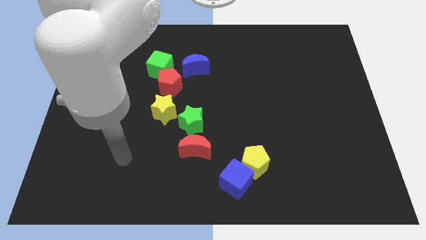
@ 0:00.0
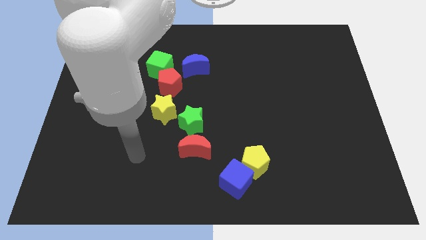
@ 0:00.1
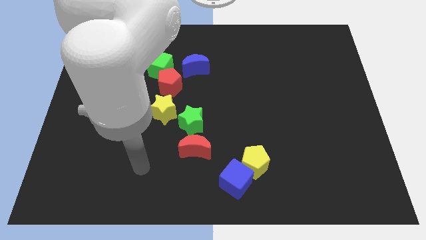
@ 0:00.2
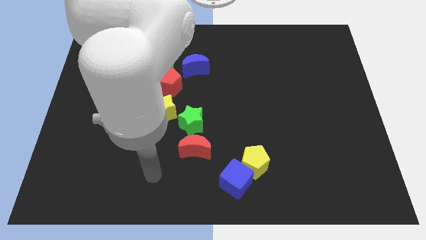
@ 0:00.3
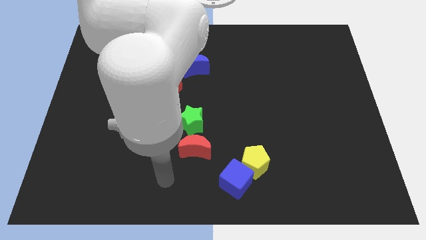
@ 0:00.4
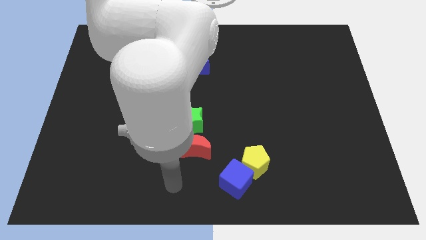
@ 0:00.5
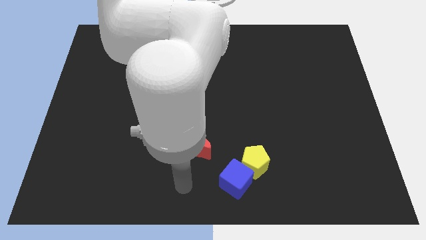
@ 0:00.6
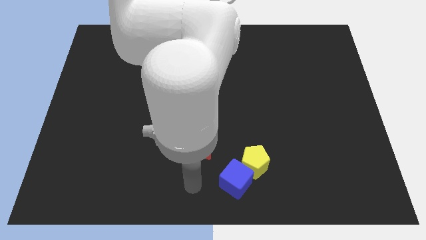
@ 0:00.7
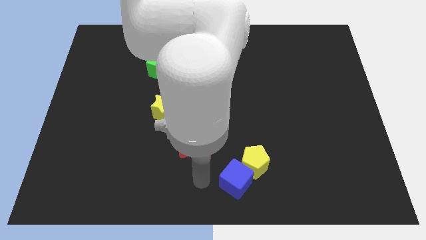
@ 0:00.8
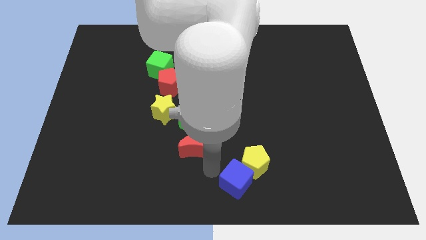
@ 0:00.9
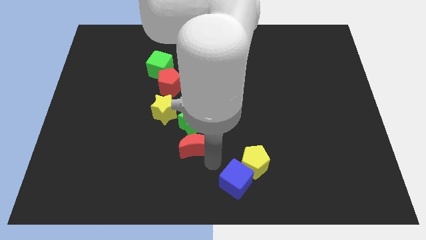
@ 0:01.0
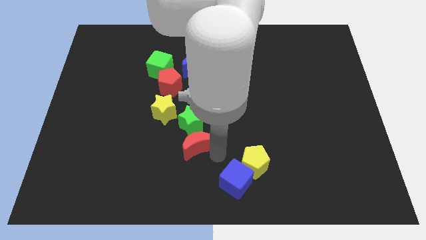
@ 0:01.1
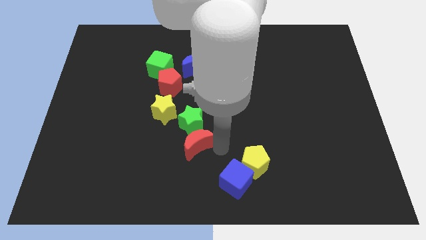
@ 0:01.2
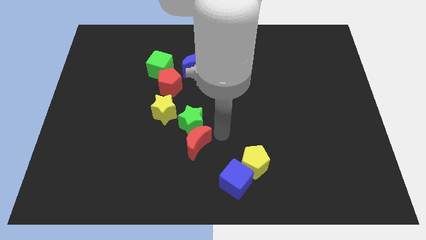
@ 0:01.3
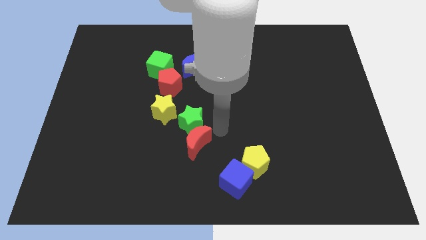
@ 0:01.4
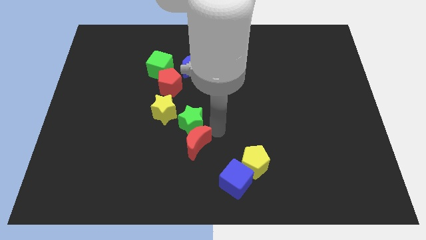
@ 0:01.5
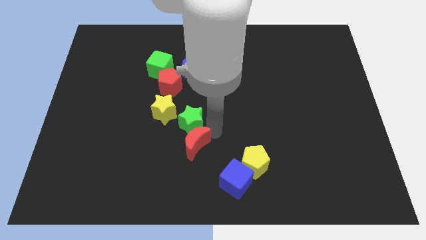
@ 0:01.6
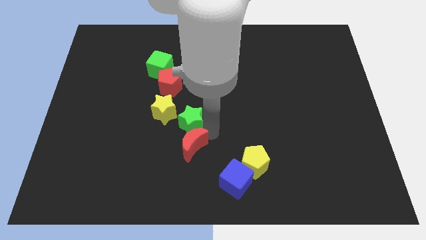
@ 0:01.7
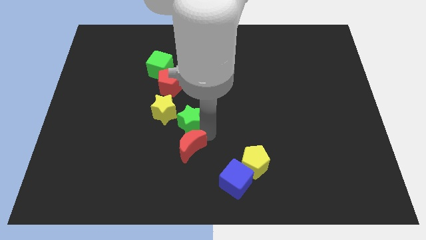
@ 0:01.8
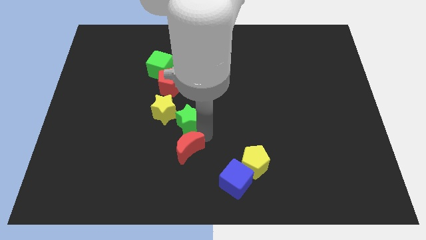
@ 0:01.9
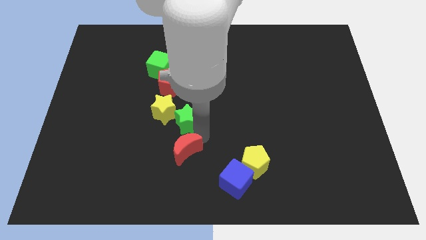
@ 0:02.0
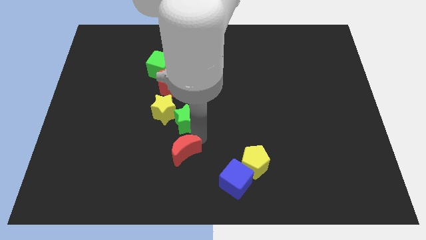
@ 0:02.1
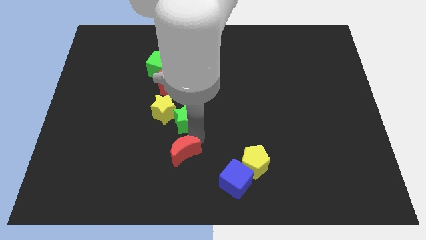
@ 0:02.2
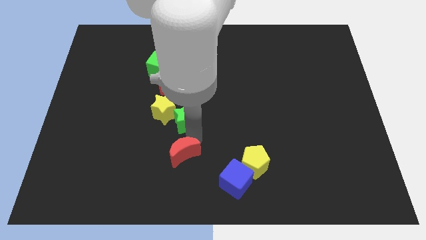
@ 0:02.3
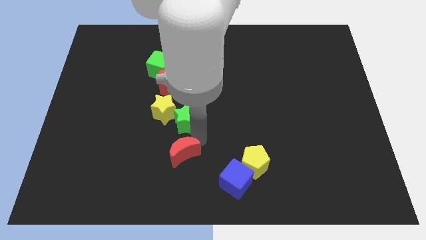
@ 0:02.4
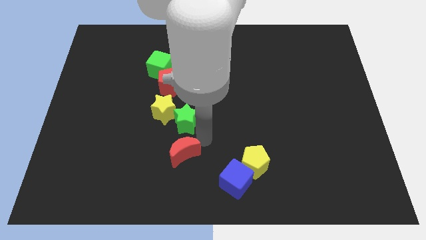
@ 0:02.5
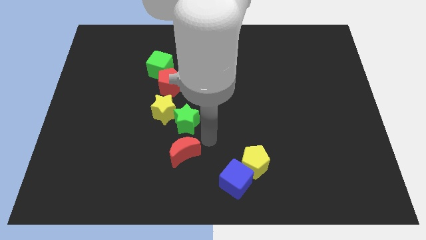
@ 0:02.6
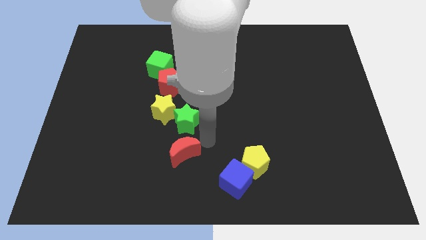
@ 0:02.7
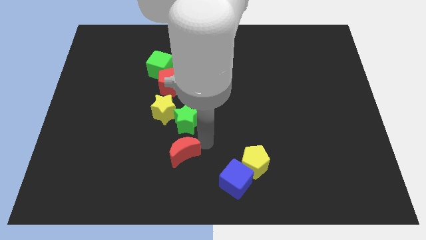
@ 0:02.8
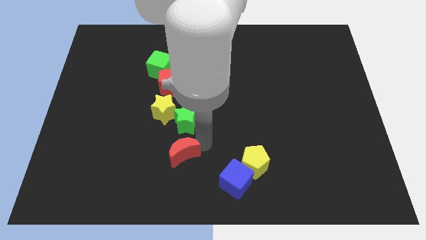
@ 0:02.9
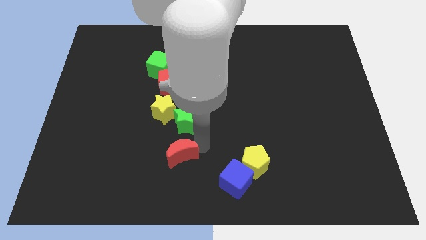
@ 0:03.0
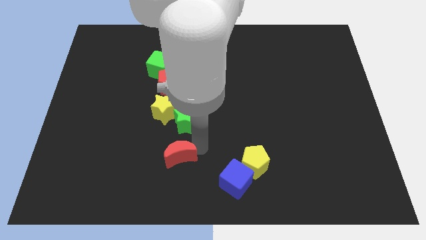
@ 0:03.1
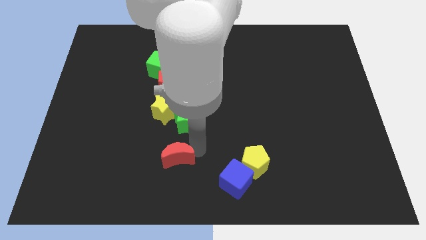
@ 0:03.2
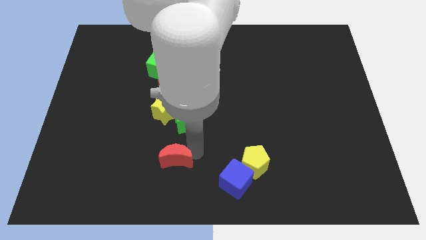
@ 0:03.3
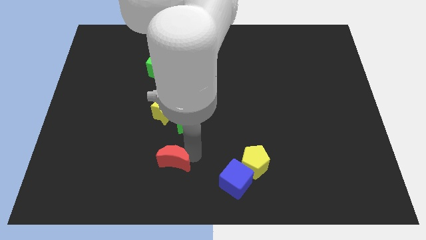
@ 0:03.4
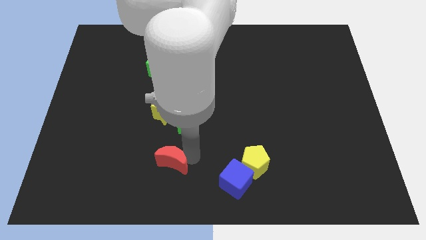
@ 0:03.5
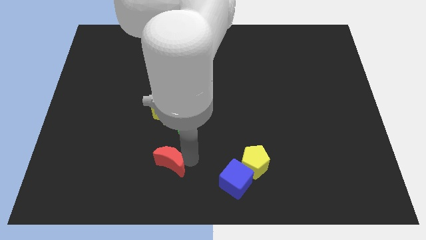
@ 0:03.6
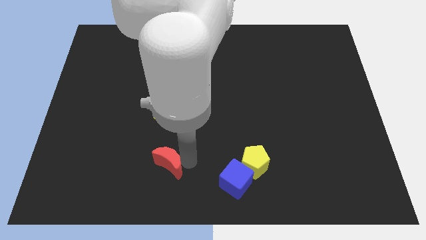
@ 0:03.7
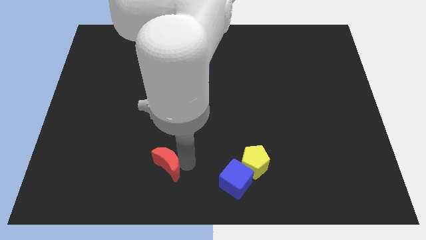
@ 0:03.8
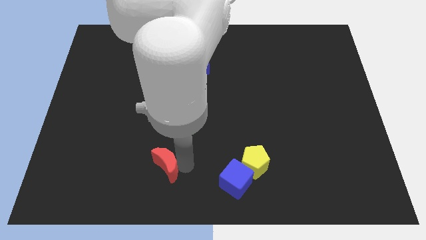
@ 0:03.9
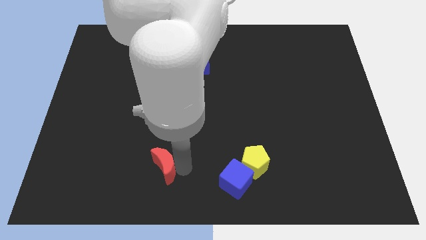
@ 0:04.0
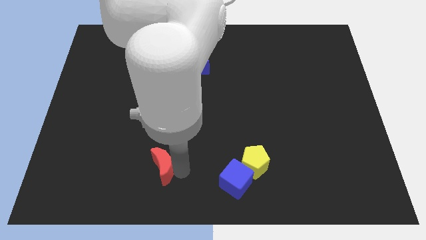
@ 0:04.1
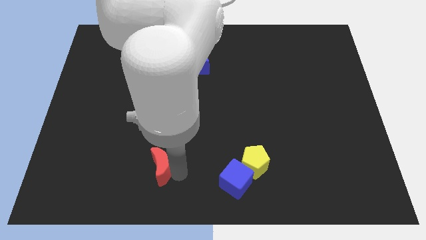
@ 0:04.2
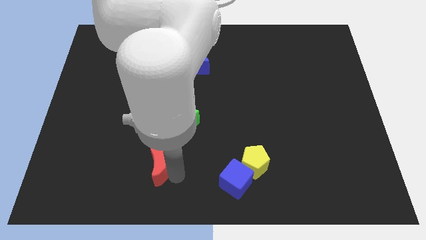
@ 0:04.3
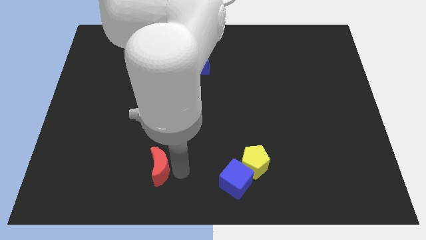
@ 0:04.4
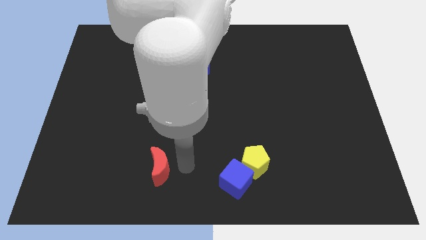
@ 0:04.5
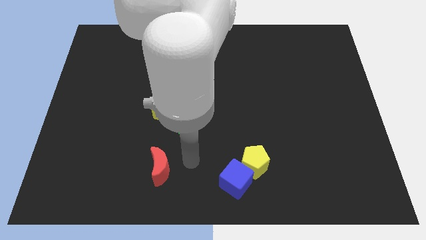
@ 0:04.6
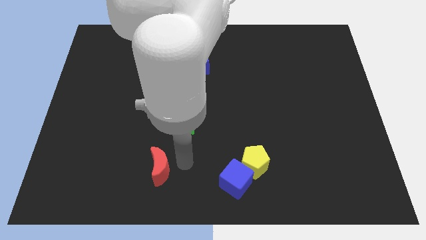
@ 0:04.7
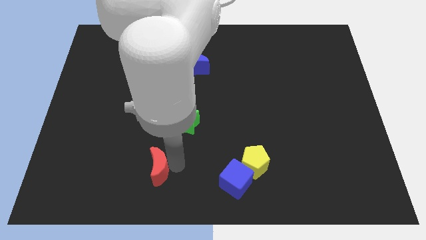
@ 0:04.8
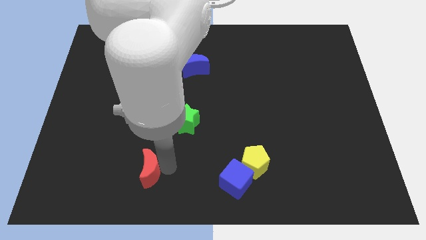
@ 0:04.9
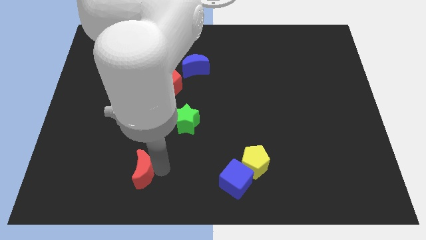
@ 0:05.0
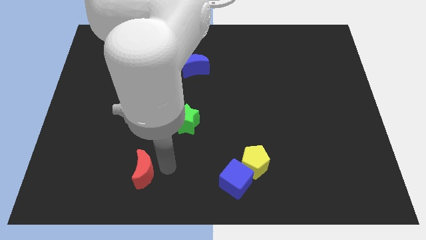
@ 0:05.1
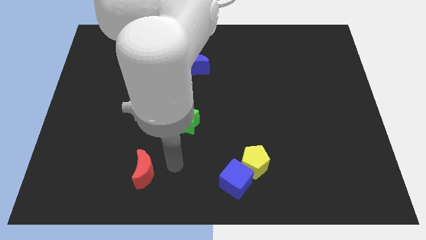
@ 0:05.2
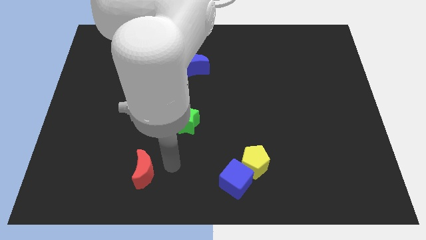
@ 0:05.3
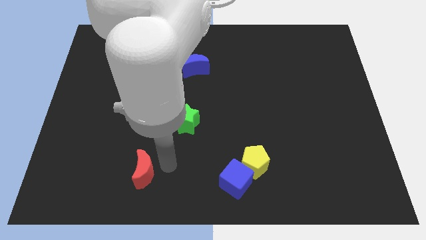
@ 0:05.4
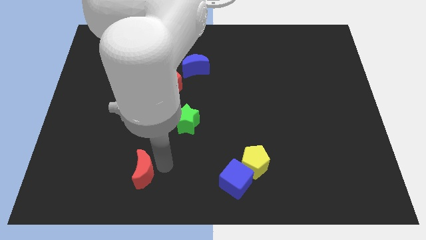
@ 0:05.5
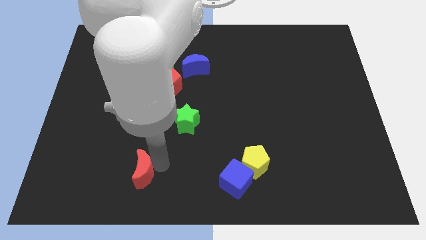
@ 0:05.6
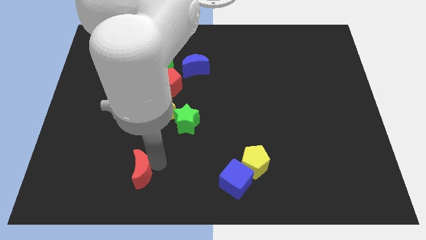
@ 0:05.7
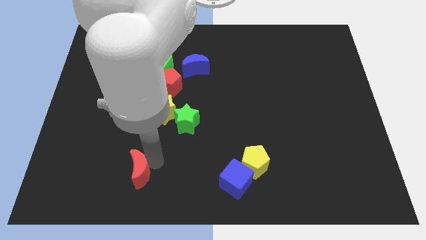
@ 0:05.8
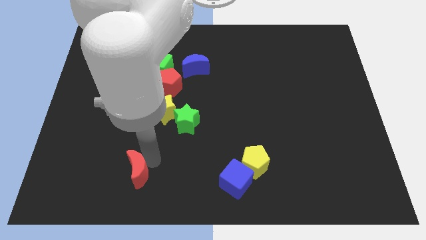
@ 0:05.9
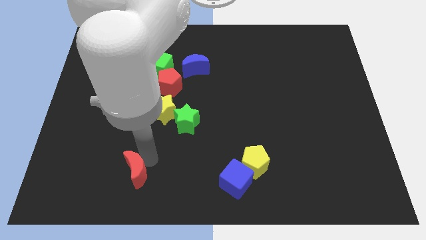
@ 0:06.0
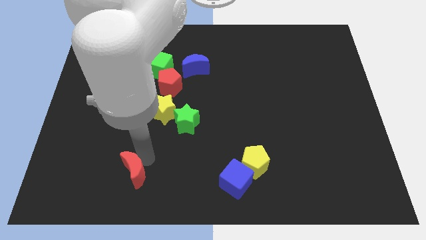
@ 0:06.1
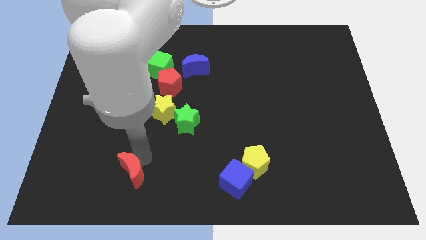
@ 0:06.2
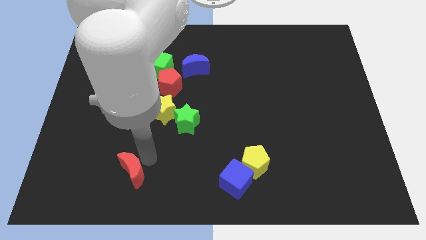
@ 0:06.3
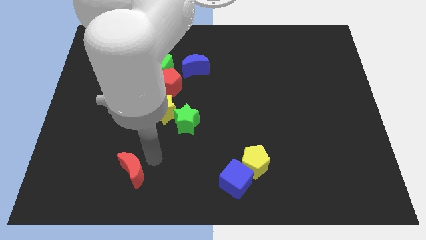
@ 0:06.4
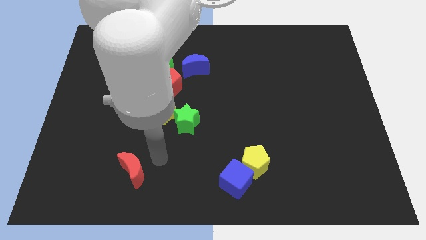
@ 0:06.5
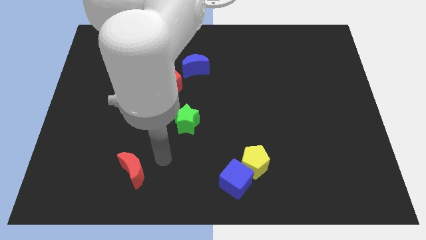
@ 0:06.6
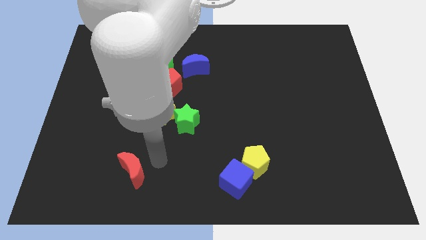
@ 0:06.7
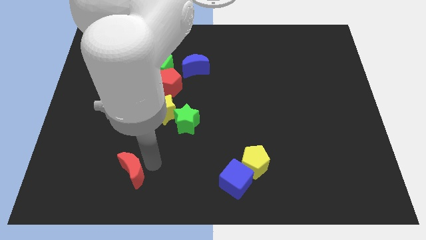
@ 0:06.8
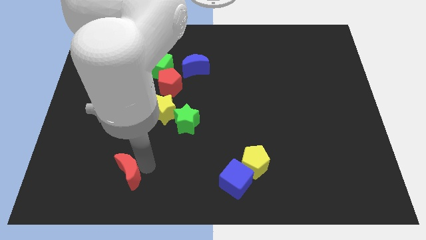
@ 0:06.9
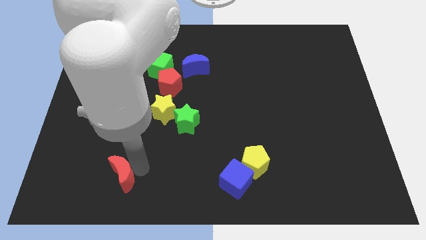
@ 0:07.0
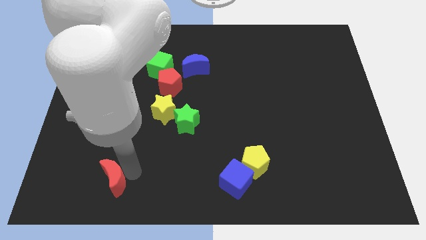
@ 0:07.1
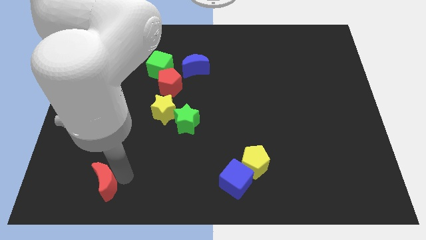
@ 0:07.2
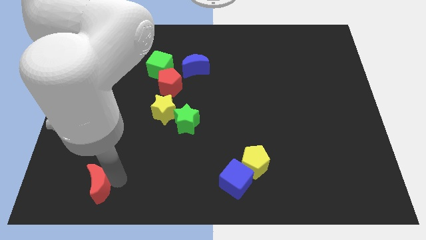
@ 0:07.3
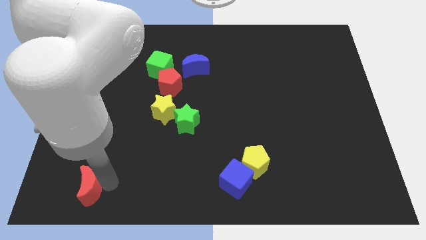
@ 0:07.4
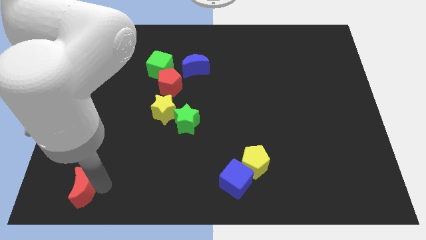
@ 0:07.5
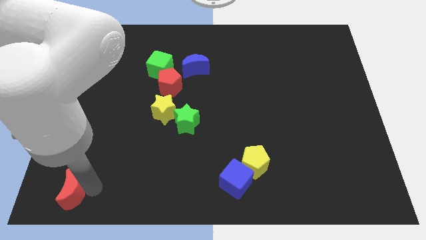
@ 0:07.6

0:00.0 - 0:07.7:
put the red moon to the bottom left
